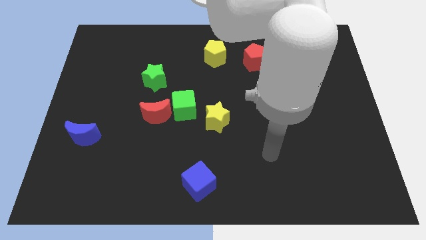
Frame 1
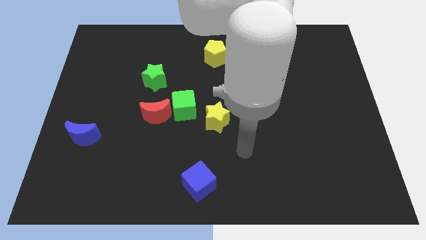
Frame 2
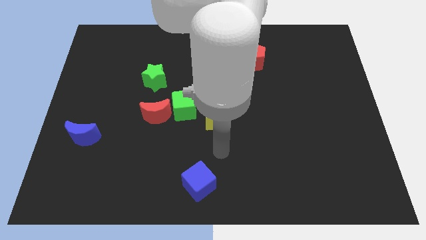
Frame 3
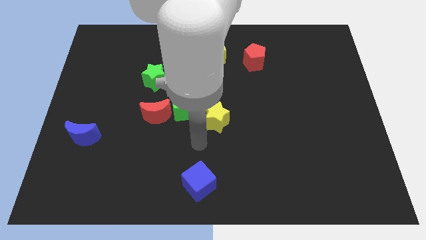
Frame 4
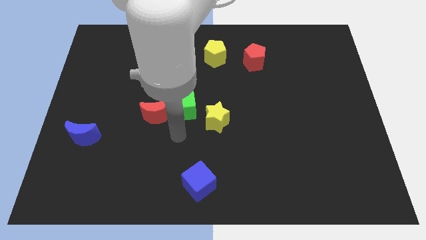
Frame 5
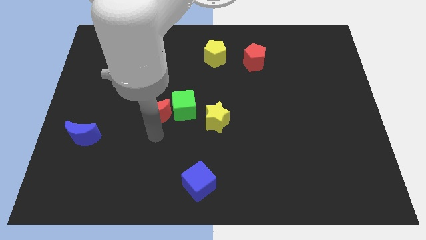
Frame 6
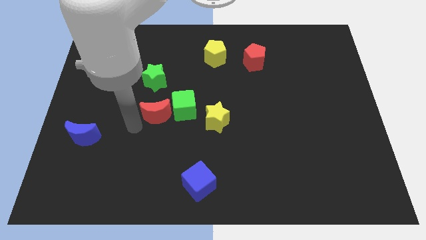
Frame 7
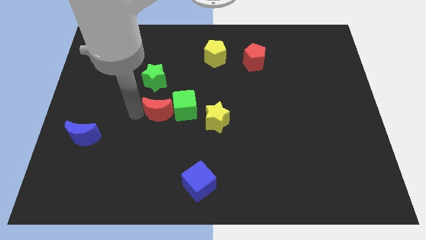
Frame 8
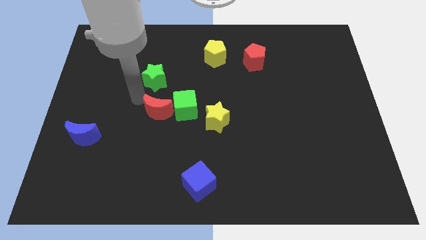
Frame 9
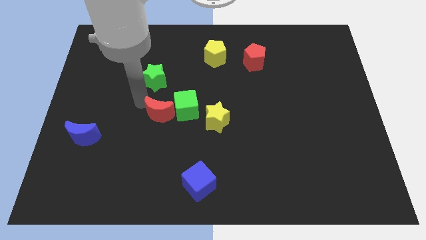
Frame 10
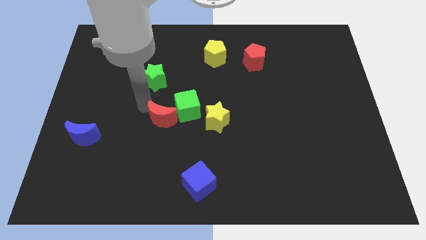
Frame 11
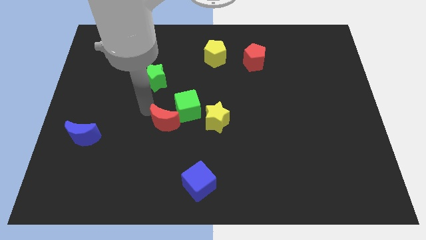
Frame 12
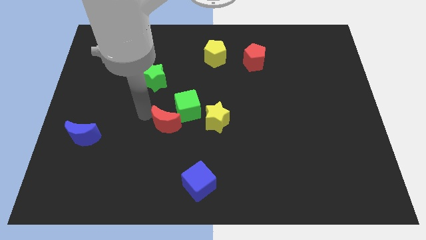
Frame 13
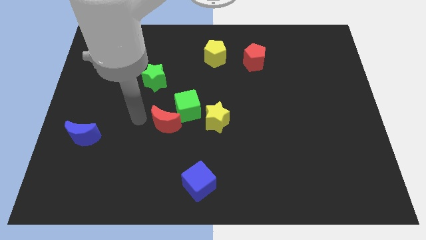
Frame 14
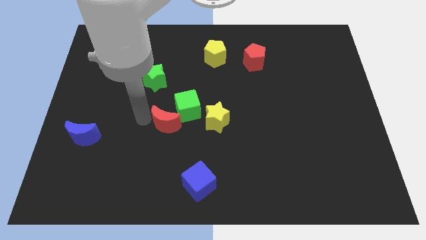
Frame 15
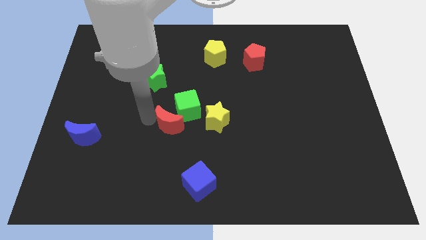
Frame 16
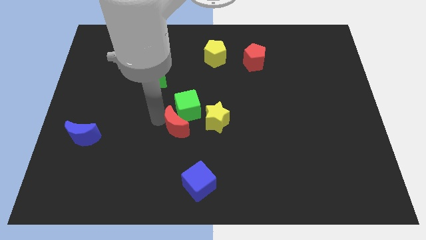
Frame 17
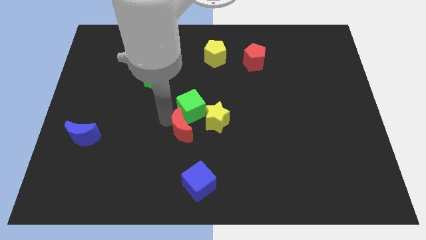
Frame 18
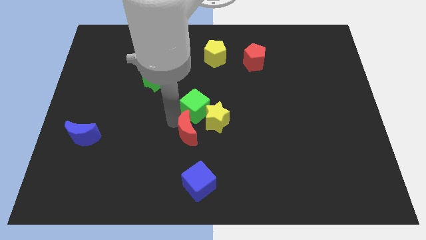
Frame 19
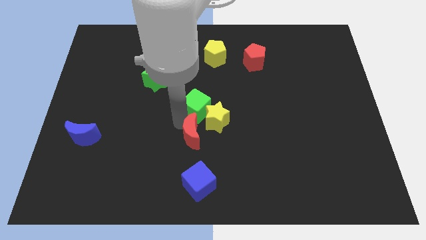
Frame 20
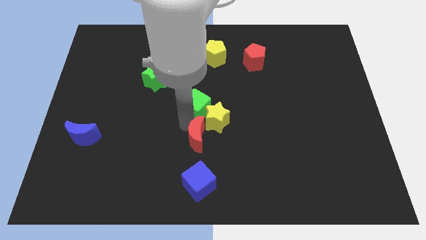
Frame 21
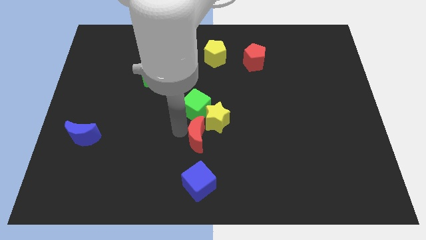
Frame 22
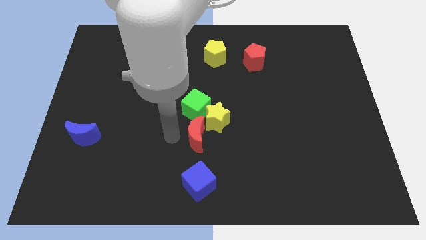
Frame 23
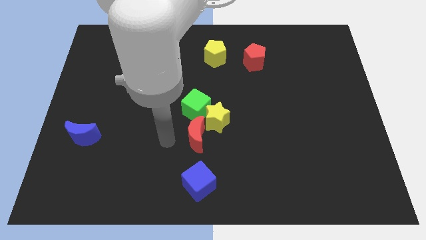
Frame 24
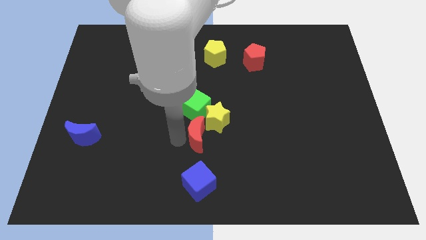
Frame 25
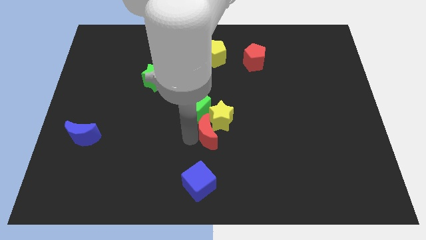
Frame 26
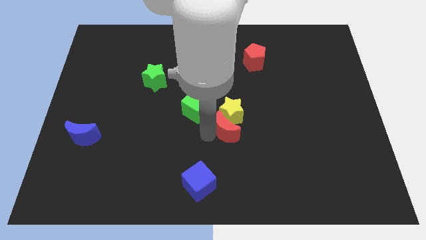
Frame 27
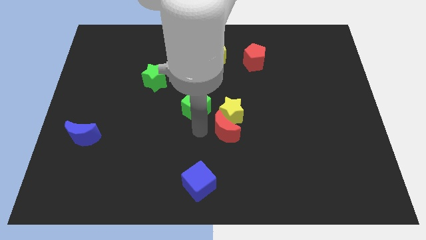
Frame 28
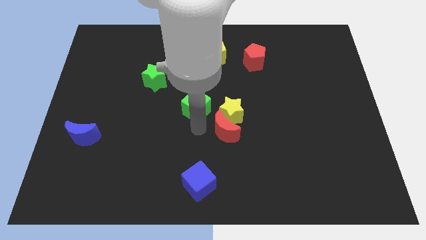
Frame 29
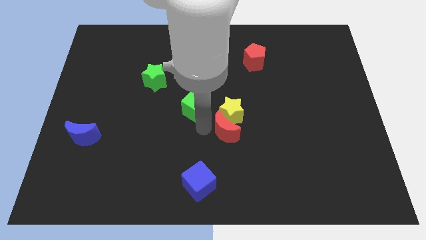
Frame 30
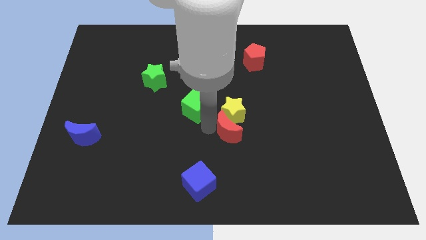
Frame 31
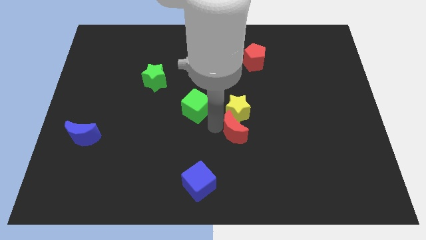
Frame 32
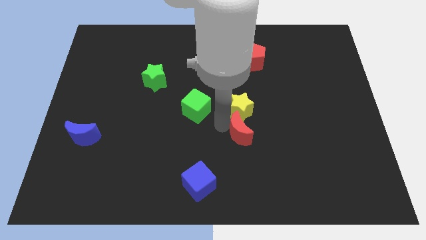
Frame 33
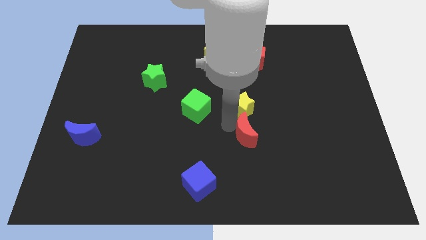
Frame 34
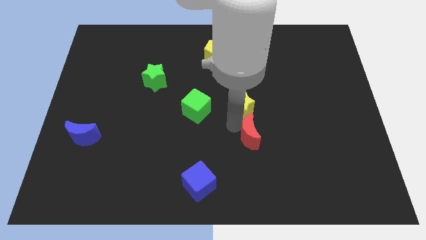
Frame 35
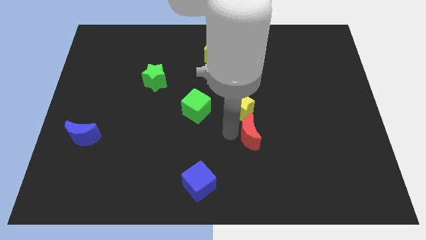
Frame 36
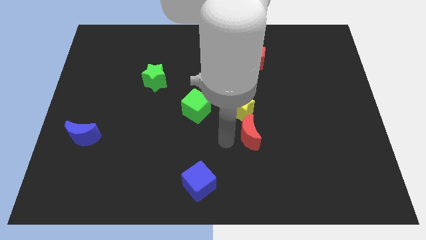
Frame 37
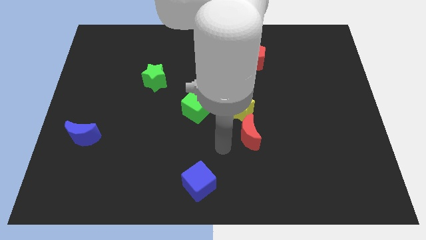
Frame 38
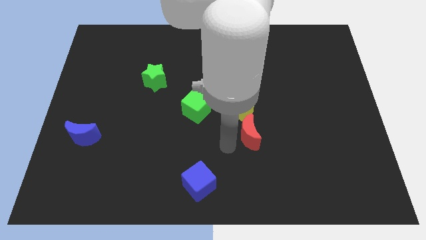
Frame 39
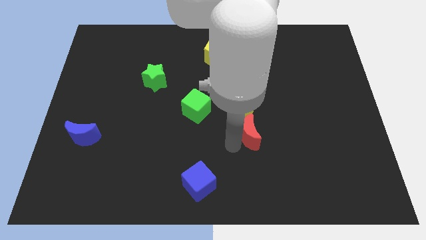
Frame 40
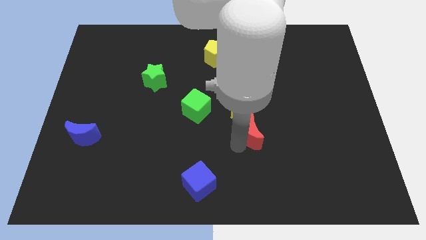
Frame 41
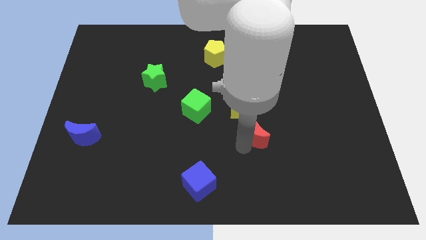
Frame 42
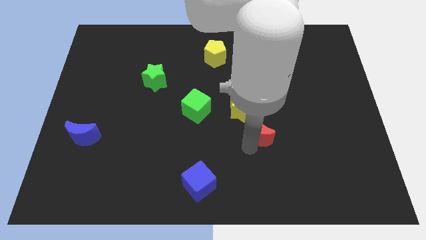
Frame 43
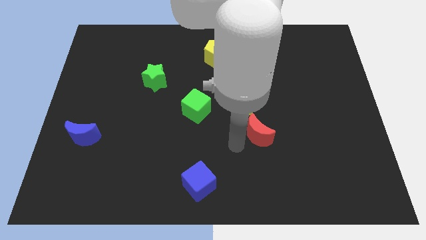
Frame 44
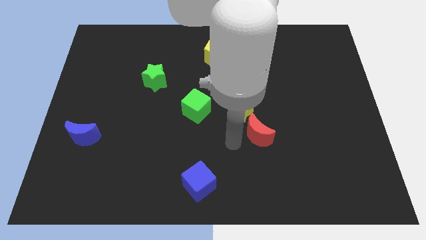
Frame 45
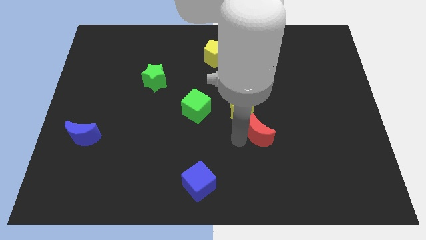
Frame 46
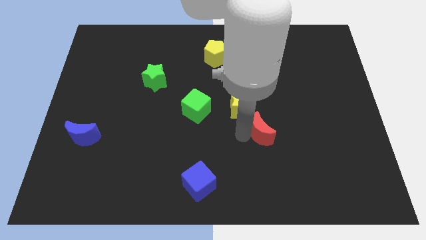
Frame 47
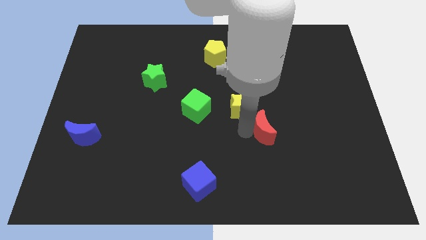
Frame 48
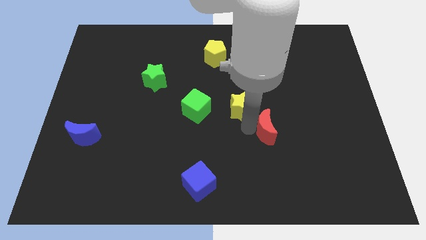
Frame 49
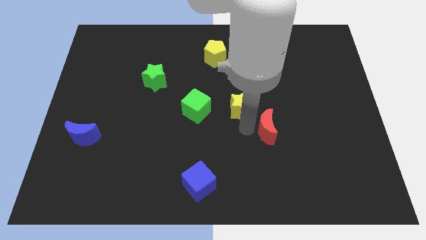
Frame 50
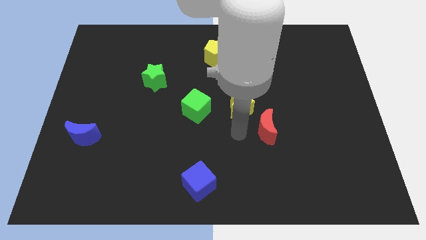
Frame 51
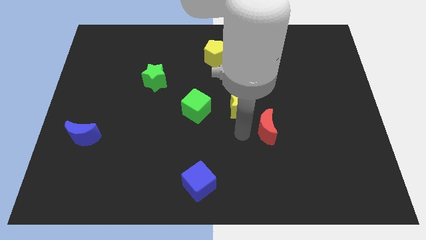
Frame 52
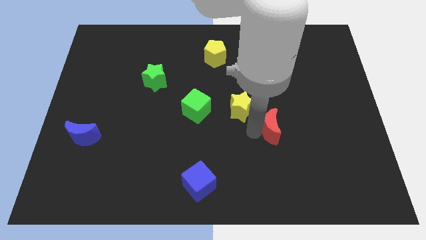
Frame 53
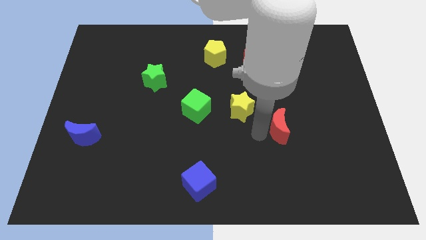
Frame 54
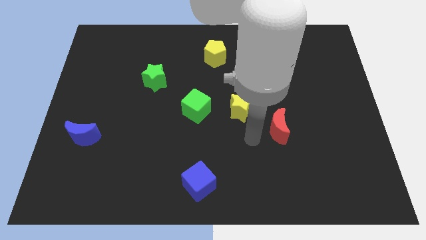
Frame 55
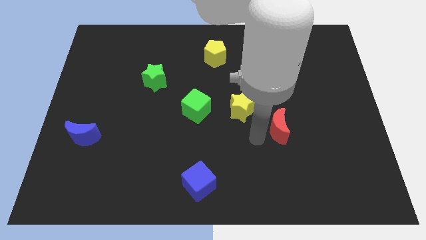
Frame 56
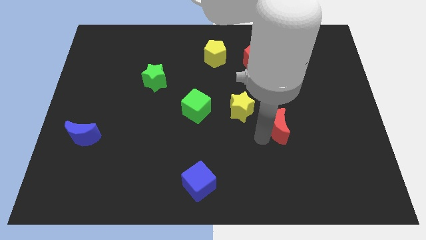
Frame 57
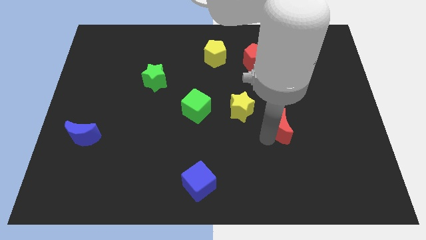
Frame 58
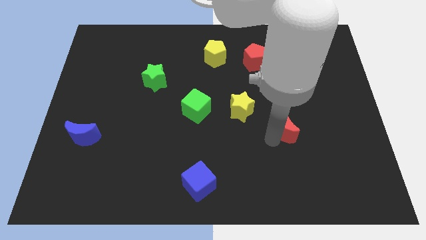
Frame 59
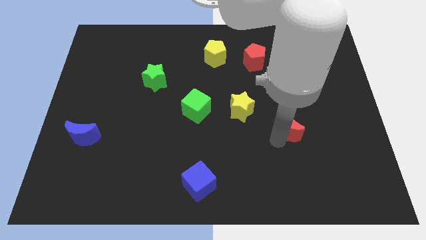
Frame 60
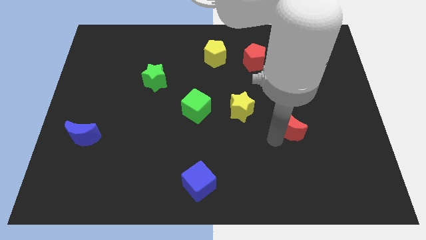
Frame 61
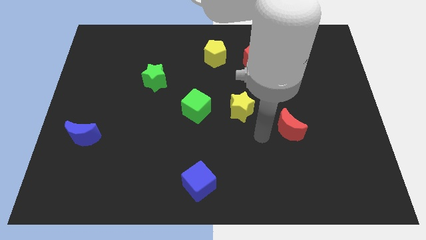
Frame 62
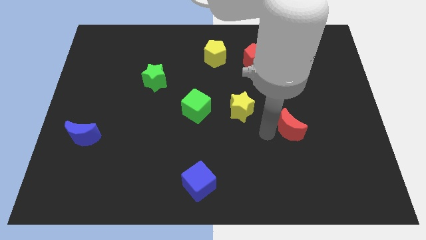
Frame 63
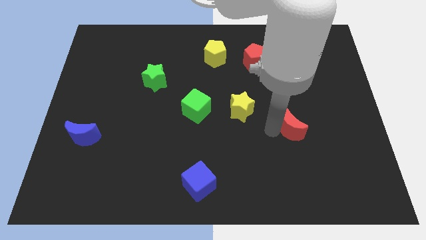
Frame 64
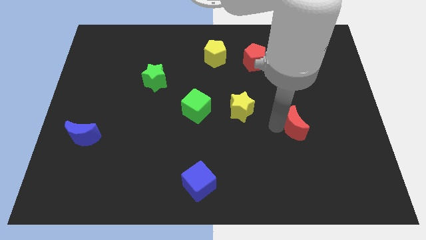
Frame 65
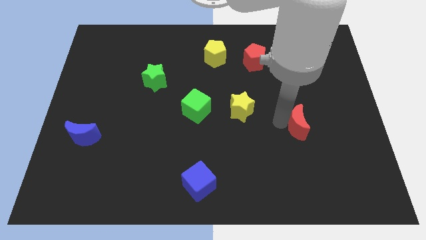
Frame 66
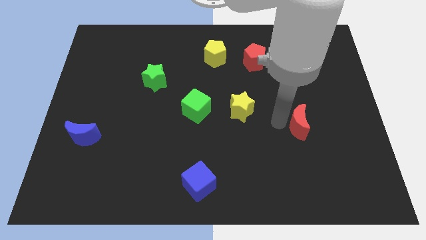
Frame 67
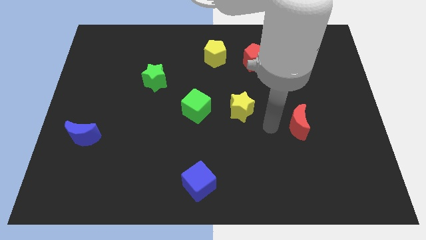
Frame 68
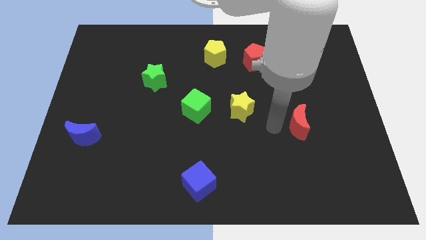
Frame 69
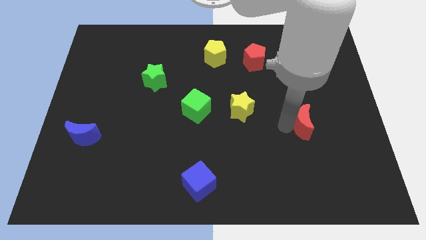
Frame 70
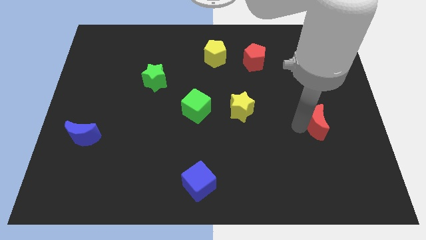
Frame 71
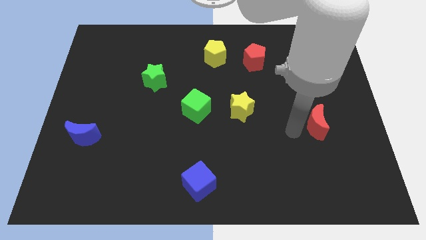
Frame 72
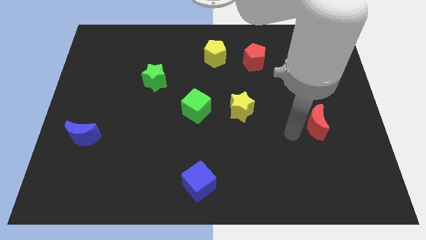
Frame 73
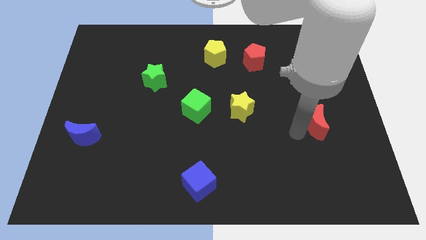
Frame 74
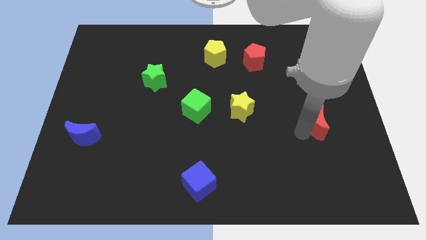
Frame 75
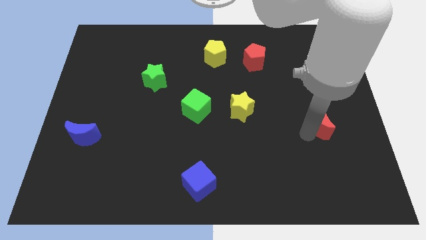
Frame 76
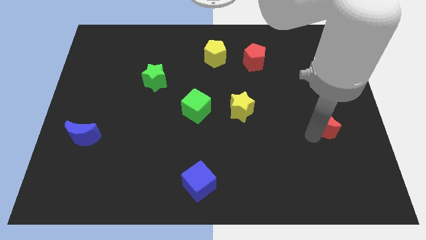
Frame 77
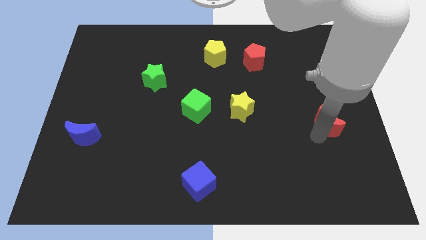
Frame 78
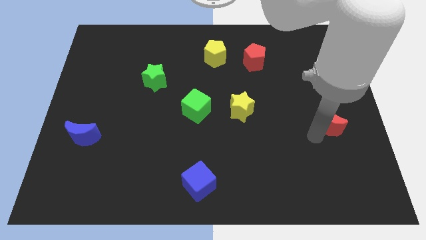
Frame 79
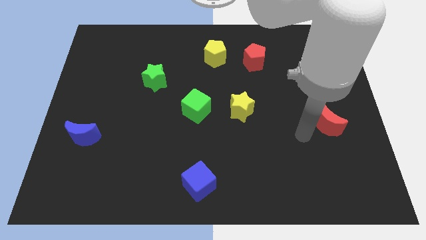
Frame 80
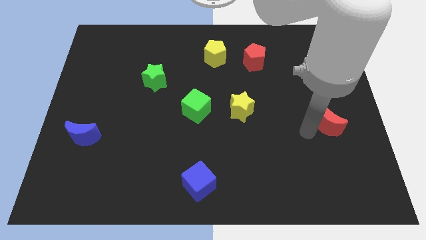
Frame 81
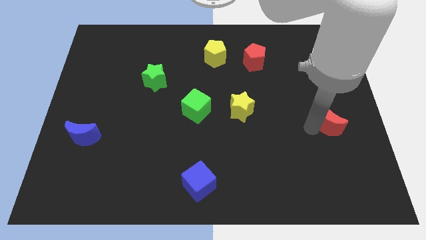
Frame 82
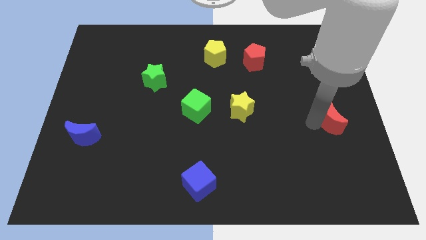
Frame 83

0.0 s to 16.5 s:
slide the red moon to the center right
